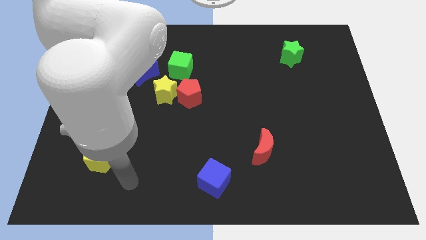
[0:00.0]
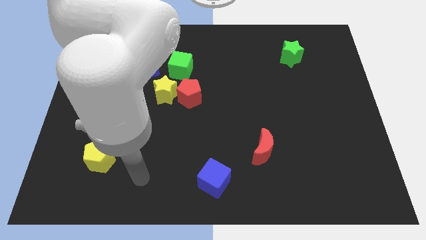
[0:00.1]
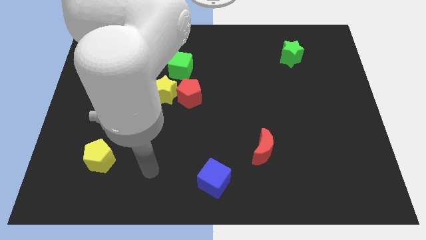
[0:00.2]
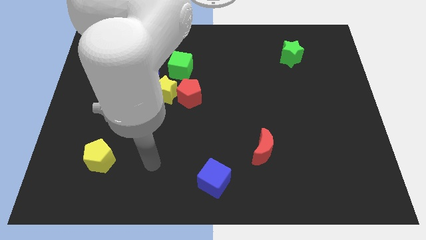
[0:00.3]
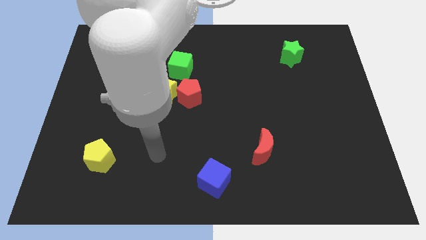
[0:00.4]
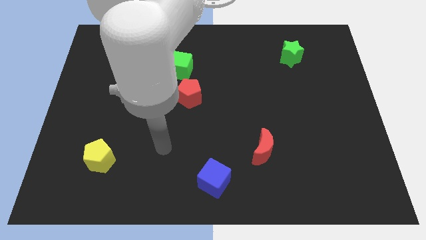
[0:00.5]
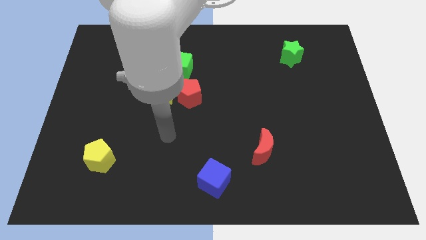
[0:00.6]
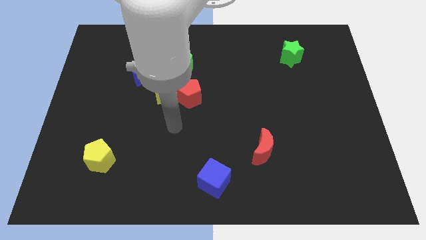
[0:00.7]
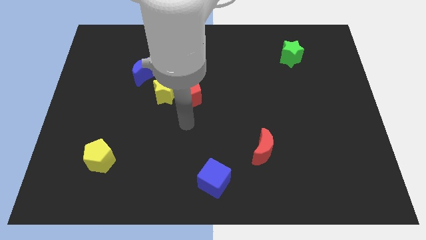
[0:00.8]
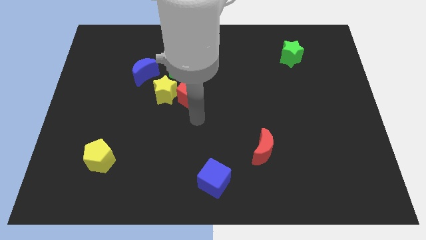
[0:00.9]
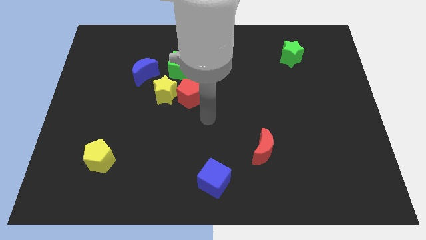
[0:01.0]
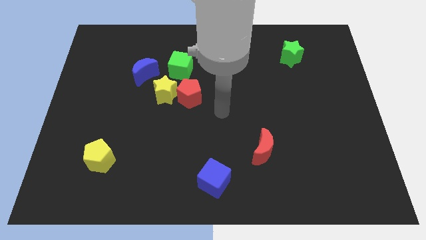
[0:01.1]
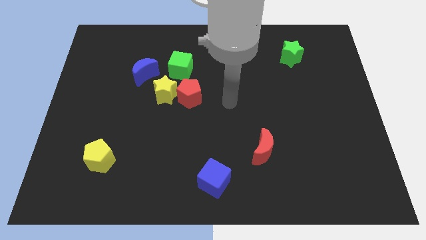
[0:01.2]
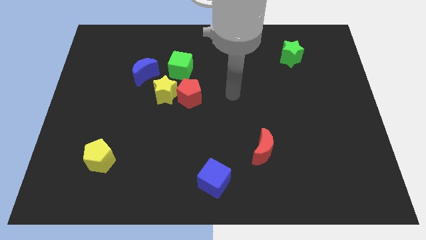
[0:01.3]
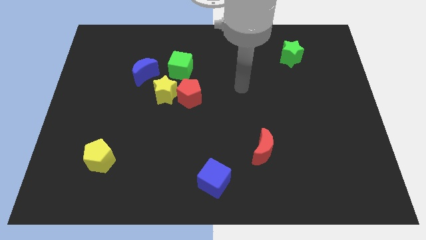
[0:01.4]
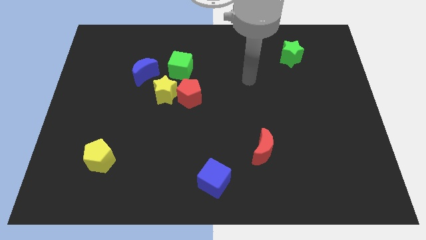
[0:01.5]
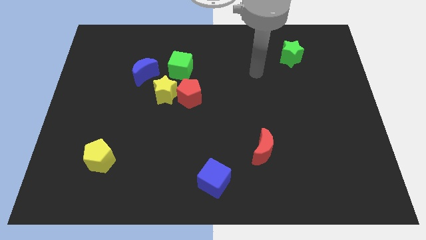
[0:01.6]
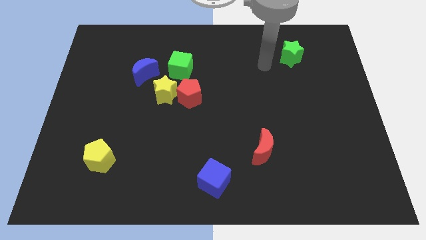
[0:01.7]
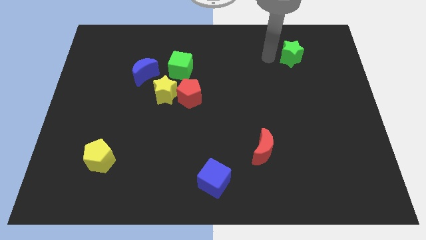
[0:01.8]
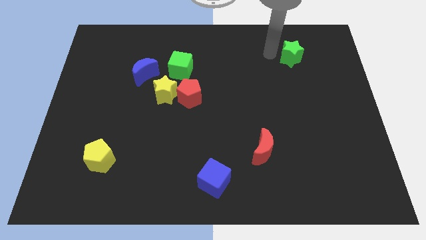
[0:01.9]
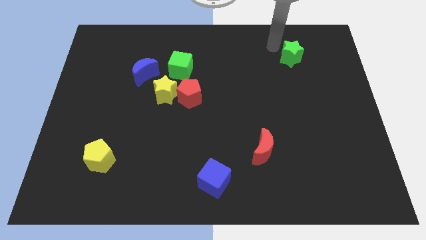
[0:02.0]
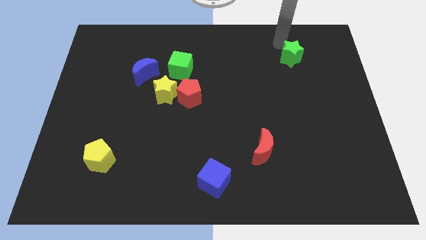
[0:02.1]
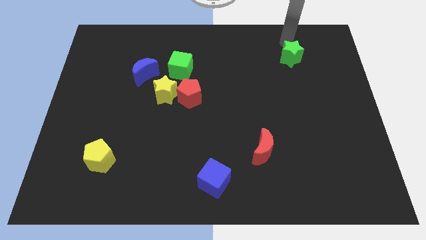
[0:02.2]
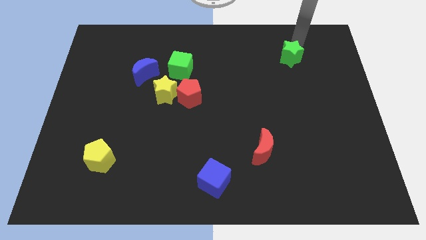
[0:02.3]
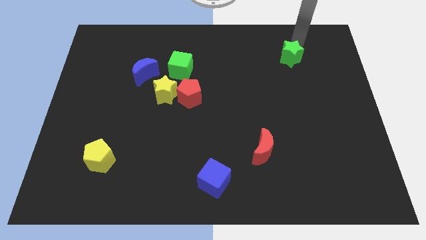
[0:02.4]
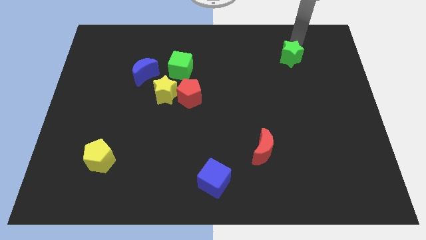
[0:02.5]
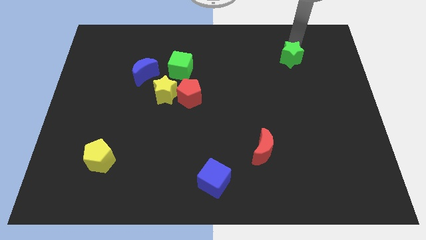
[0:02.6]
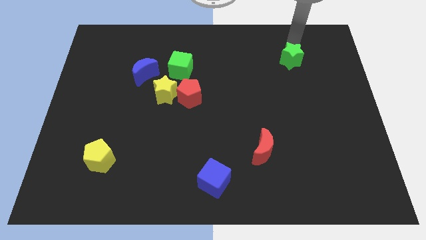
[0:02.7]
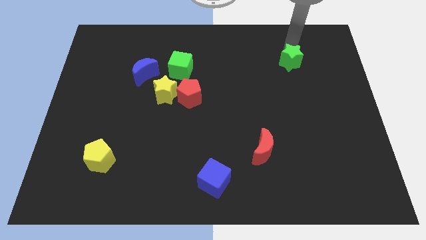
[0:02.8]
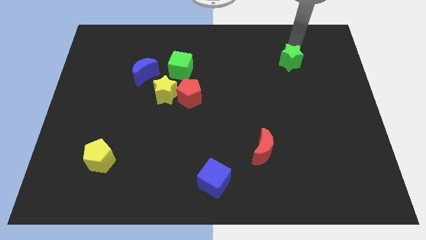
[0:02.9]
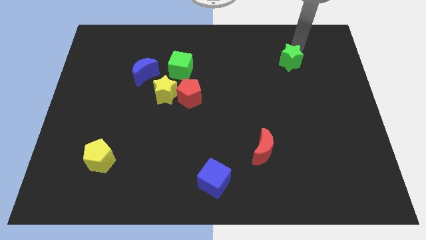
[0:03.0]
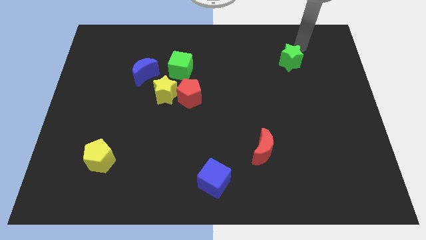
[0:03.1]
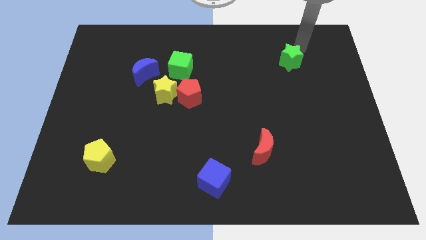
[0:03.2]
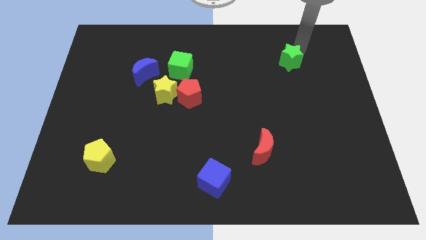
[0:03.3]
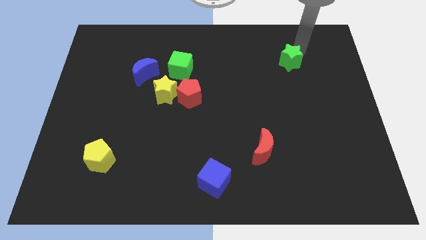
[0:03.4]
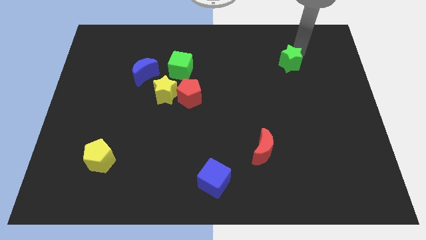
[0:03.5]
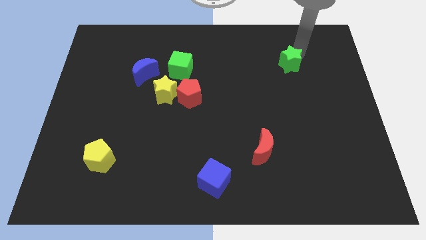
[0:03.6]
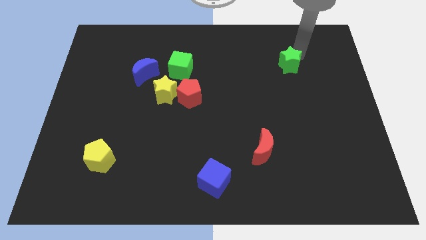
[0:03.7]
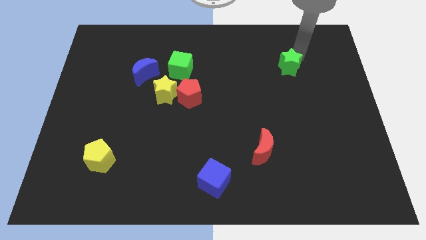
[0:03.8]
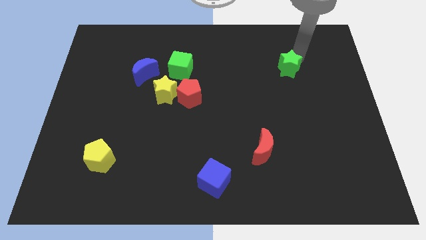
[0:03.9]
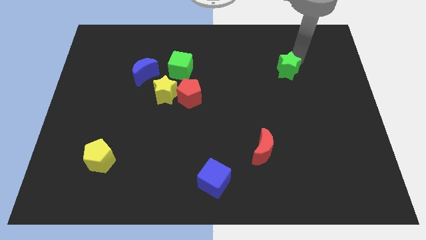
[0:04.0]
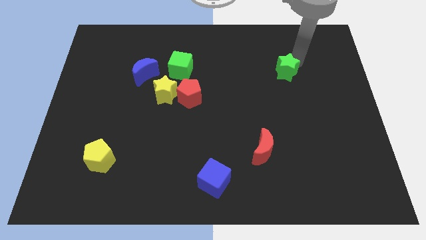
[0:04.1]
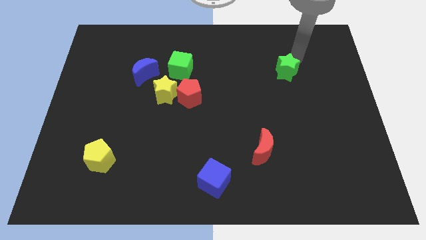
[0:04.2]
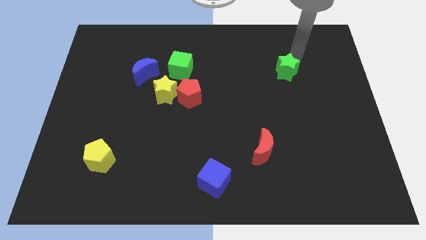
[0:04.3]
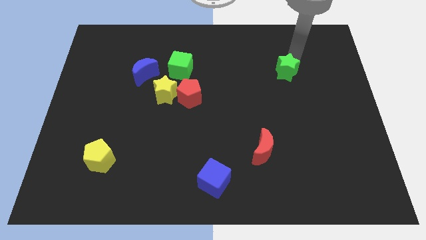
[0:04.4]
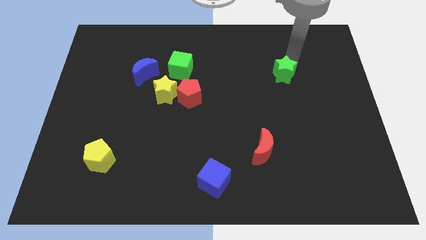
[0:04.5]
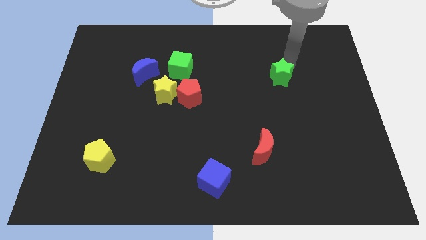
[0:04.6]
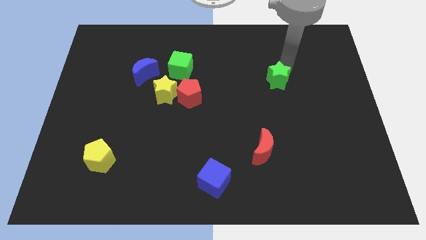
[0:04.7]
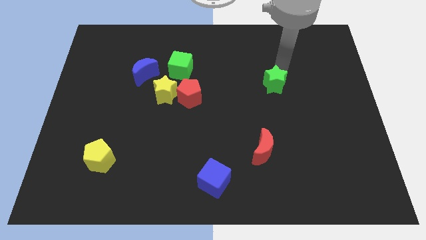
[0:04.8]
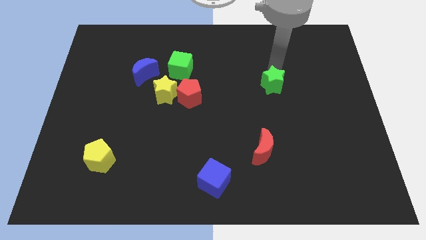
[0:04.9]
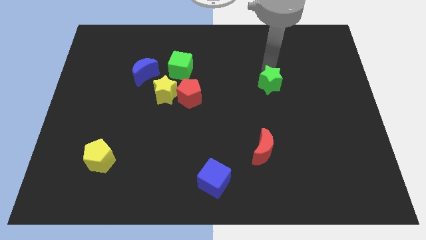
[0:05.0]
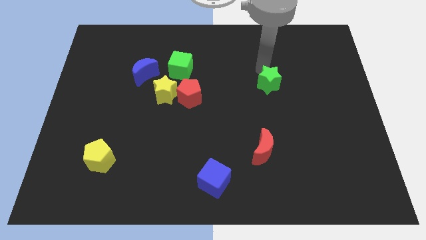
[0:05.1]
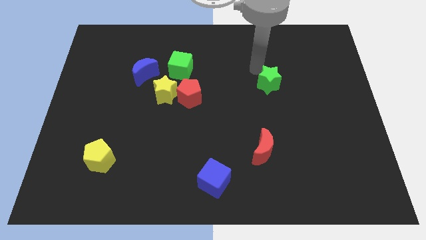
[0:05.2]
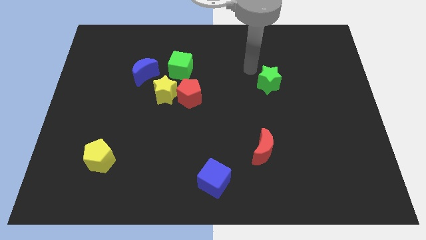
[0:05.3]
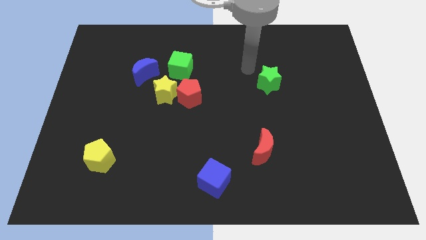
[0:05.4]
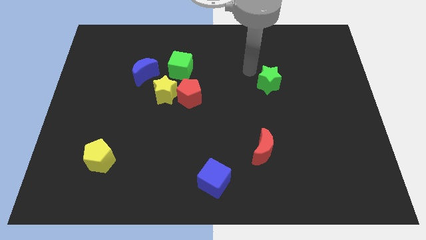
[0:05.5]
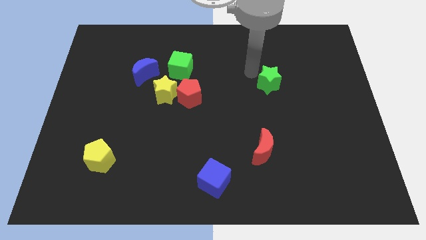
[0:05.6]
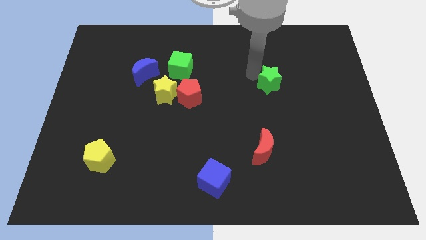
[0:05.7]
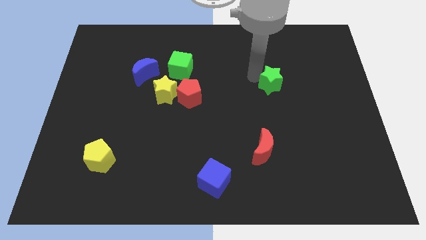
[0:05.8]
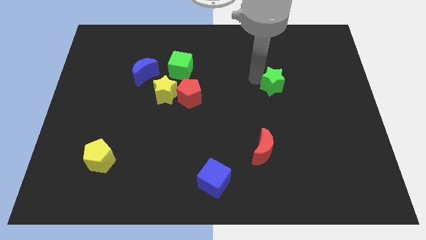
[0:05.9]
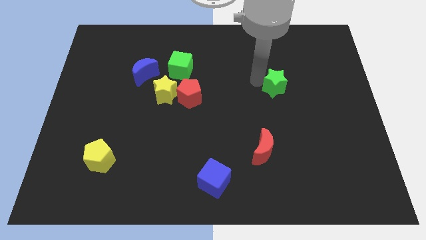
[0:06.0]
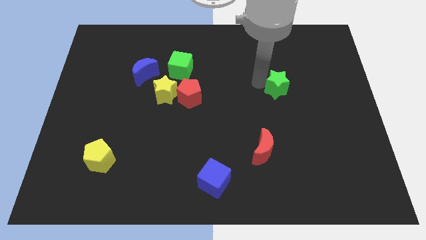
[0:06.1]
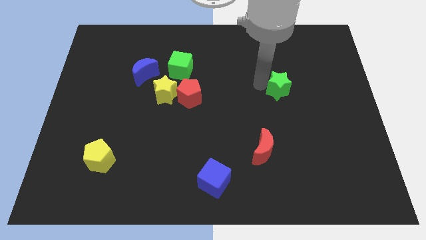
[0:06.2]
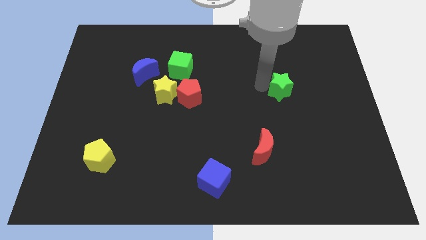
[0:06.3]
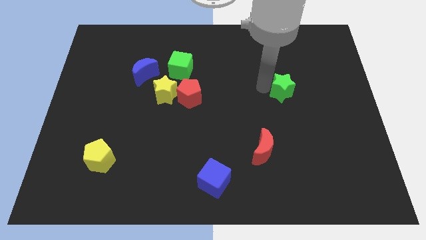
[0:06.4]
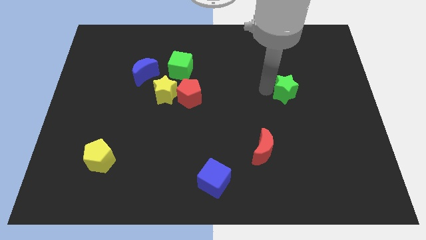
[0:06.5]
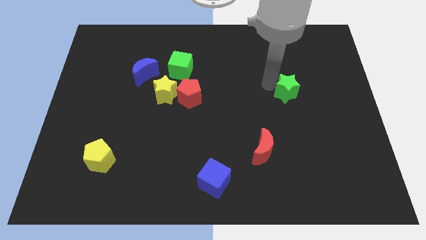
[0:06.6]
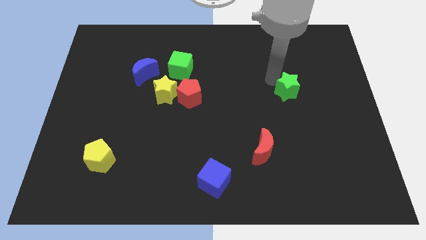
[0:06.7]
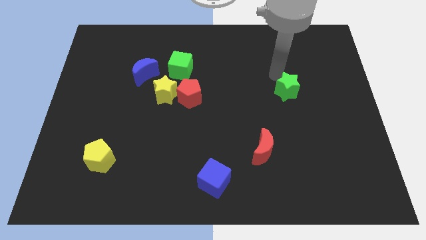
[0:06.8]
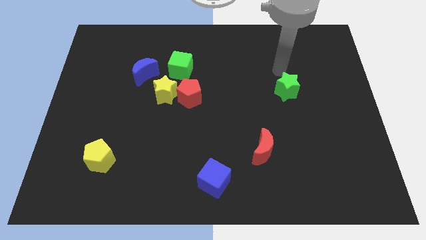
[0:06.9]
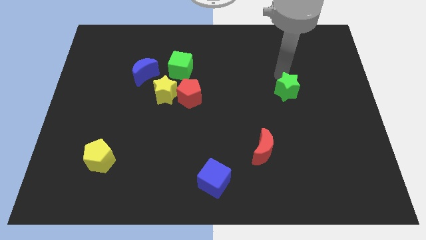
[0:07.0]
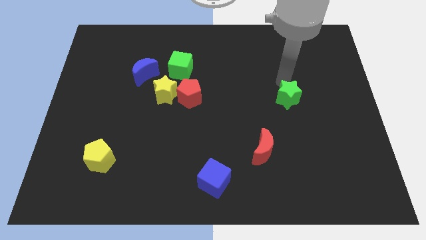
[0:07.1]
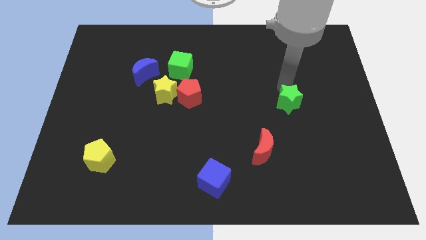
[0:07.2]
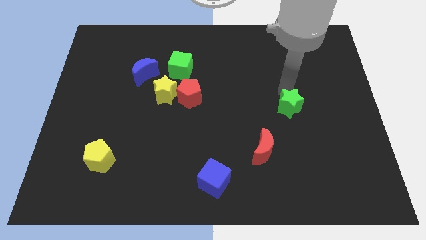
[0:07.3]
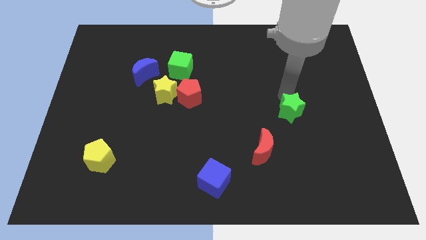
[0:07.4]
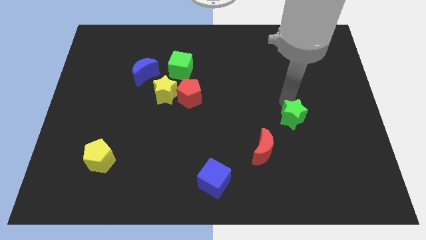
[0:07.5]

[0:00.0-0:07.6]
move the green star down

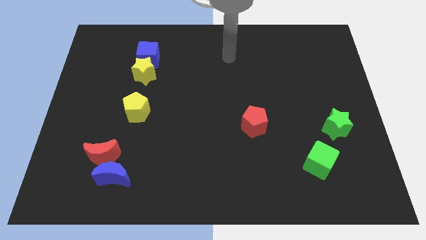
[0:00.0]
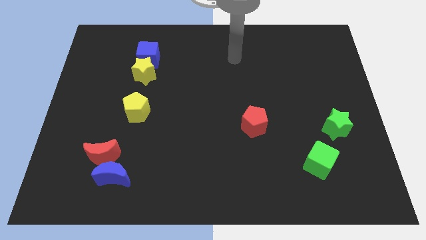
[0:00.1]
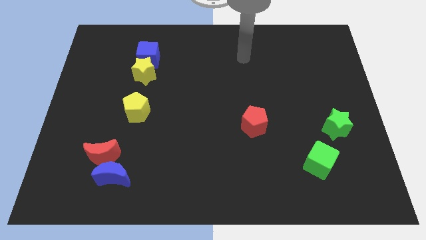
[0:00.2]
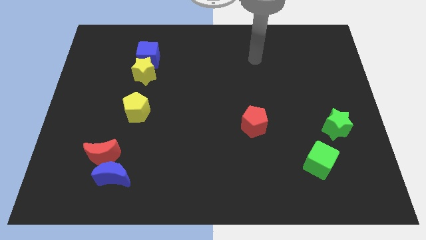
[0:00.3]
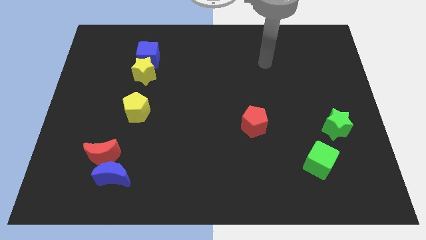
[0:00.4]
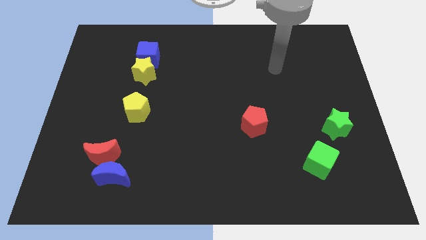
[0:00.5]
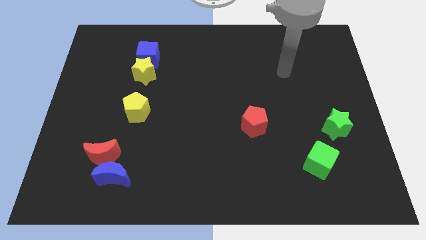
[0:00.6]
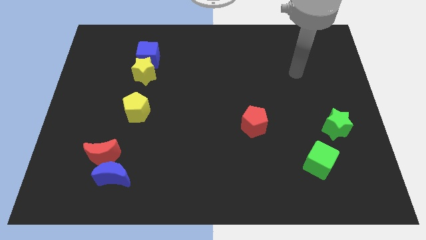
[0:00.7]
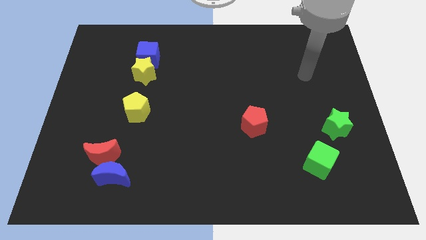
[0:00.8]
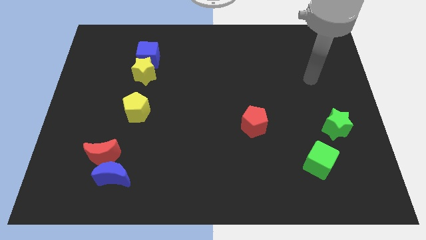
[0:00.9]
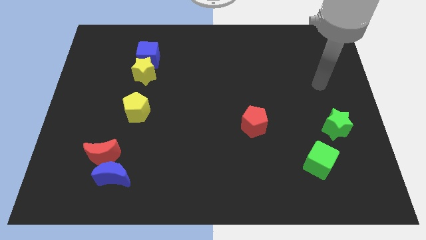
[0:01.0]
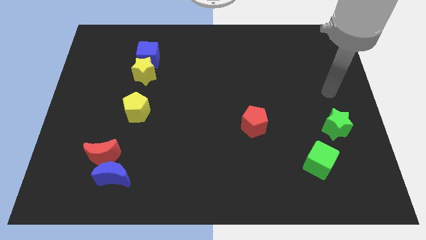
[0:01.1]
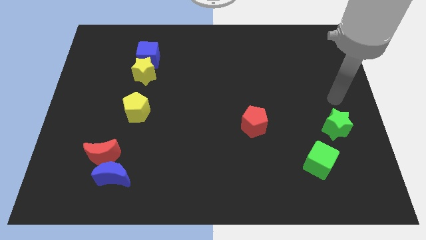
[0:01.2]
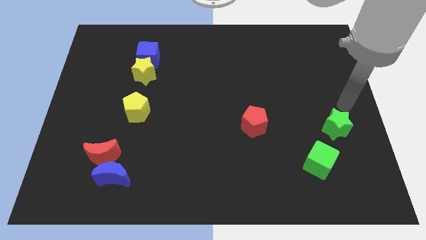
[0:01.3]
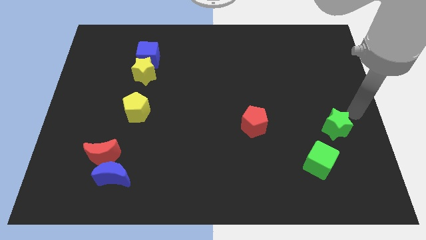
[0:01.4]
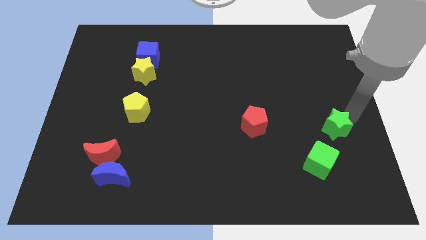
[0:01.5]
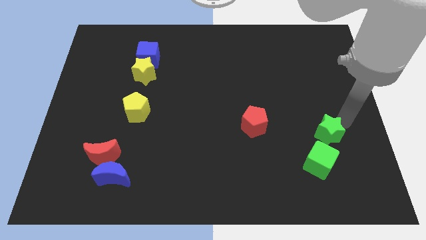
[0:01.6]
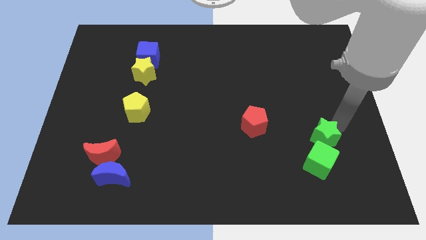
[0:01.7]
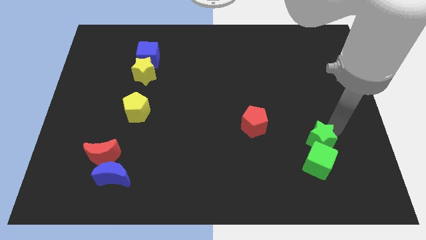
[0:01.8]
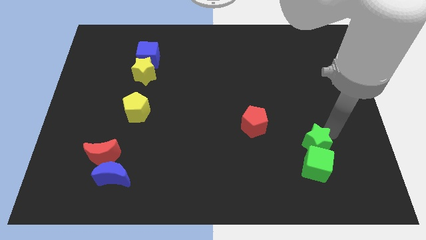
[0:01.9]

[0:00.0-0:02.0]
push the green star down and then left a little bit
